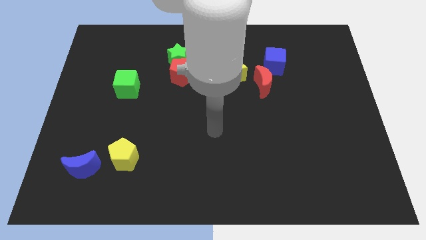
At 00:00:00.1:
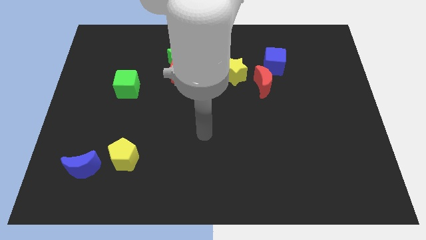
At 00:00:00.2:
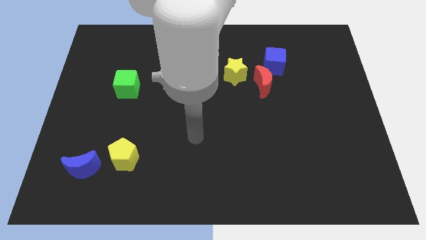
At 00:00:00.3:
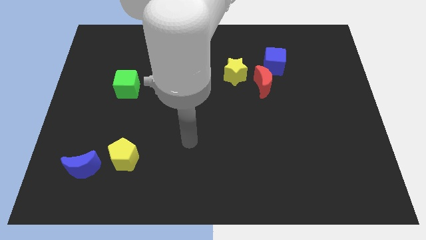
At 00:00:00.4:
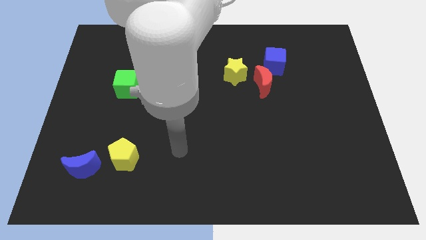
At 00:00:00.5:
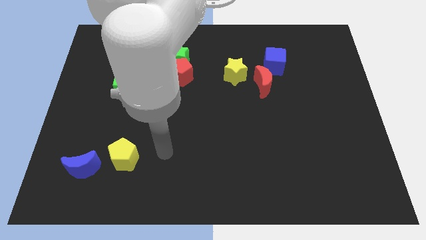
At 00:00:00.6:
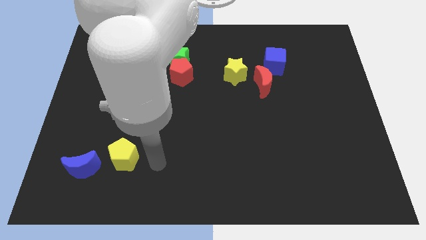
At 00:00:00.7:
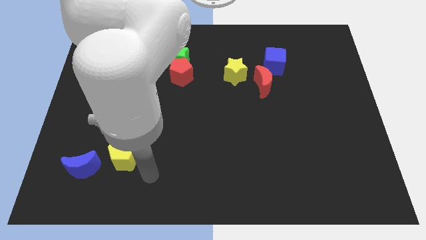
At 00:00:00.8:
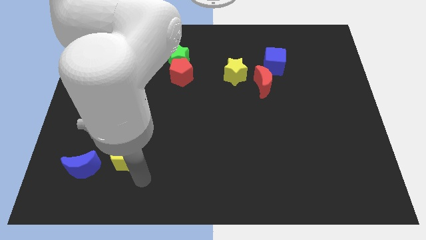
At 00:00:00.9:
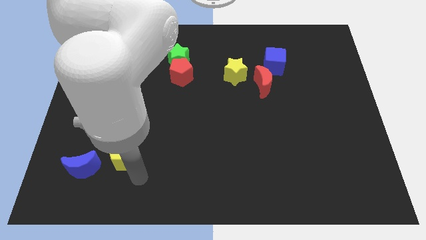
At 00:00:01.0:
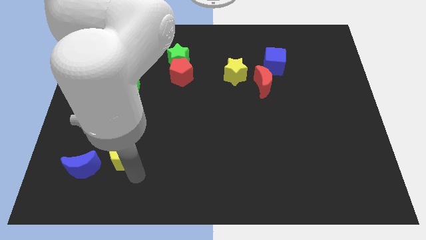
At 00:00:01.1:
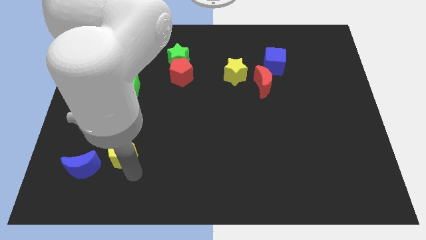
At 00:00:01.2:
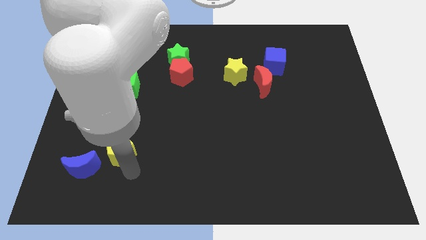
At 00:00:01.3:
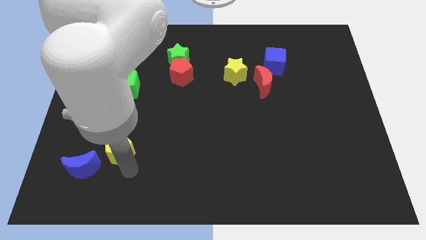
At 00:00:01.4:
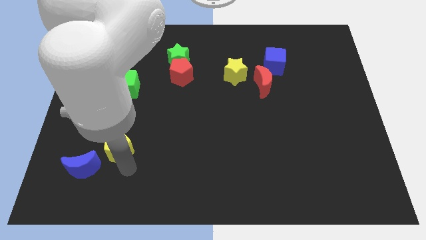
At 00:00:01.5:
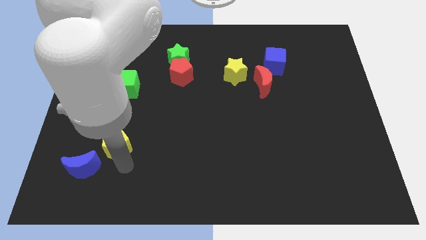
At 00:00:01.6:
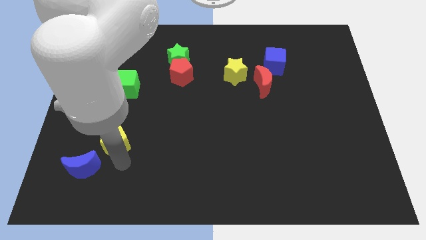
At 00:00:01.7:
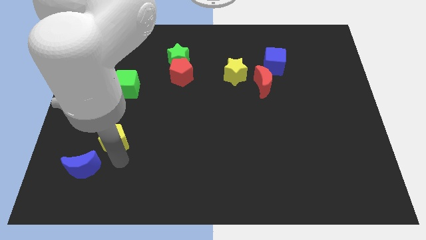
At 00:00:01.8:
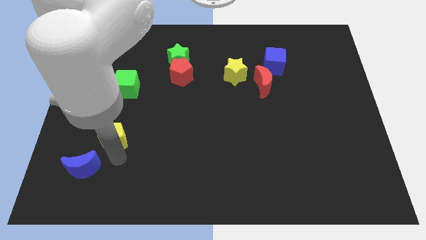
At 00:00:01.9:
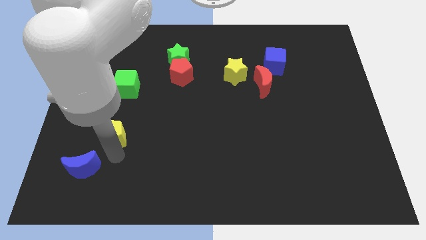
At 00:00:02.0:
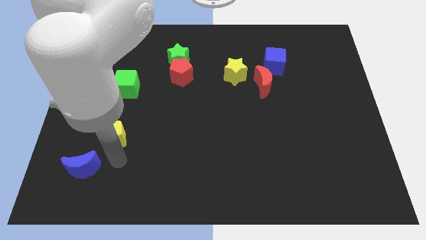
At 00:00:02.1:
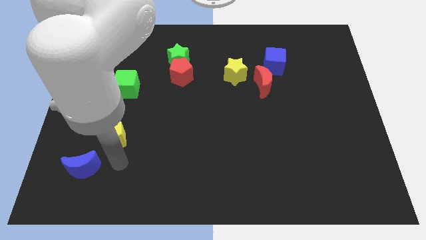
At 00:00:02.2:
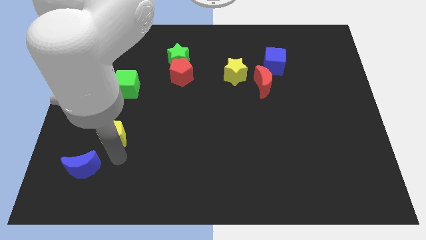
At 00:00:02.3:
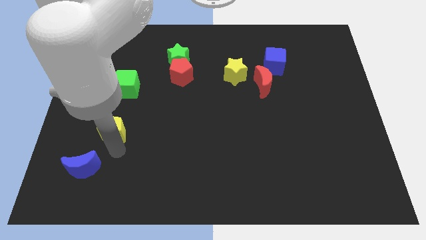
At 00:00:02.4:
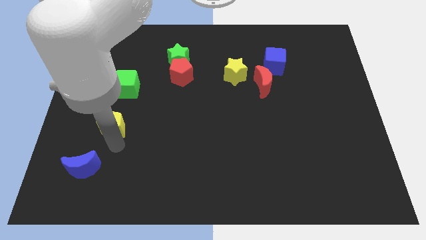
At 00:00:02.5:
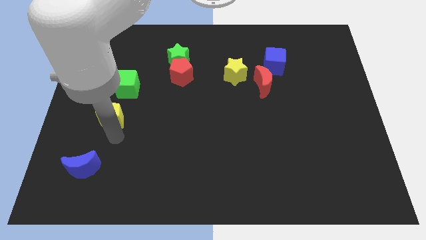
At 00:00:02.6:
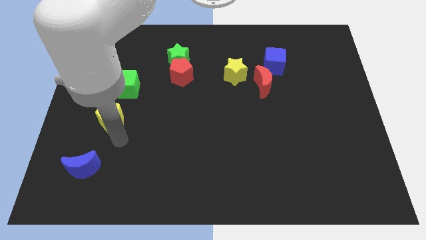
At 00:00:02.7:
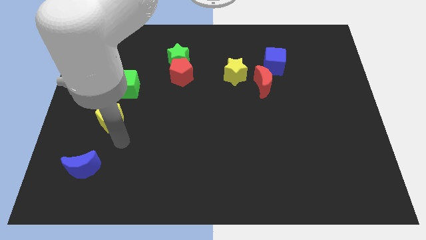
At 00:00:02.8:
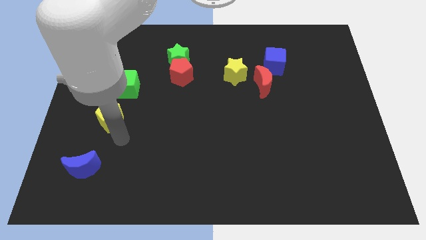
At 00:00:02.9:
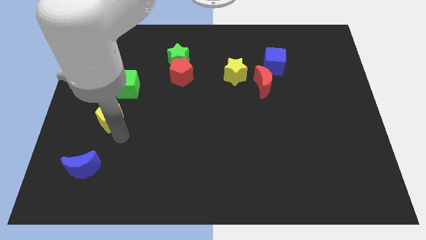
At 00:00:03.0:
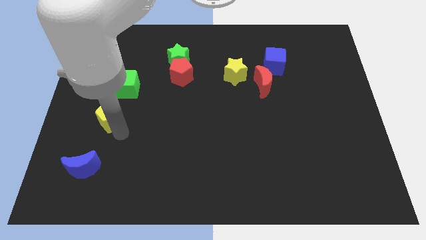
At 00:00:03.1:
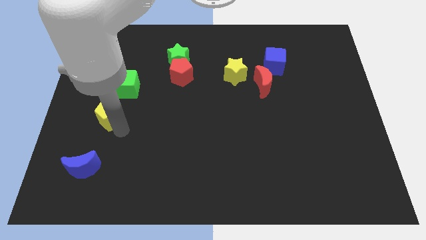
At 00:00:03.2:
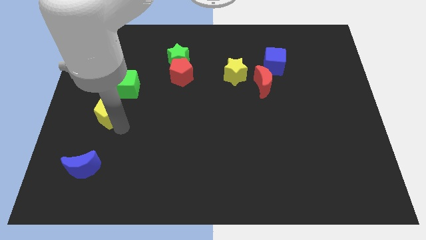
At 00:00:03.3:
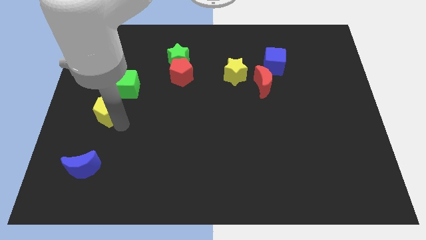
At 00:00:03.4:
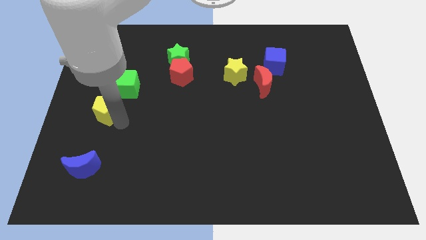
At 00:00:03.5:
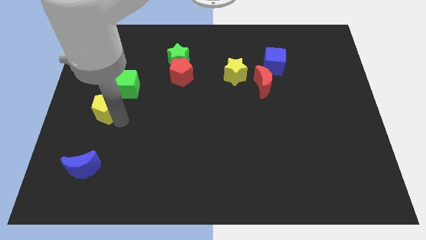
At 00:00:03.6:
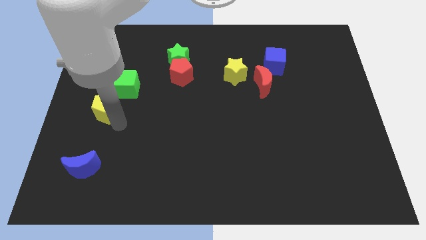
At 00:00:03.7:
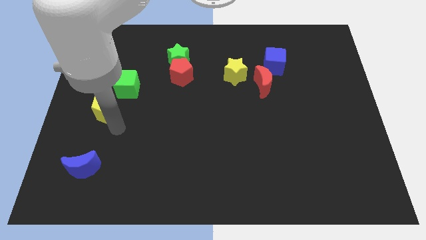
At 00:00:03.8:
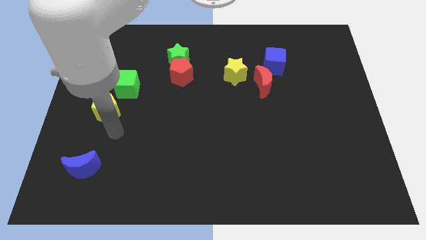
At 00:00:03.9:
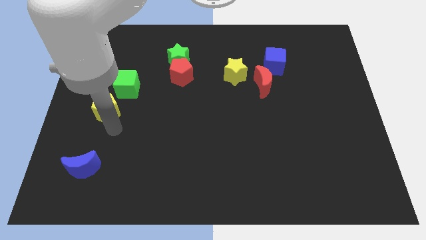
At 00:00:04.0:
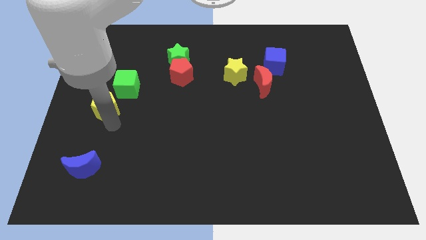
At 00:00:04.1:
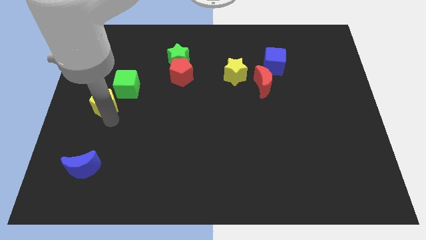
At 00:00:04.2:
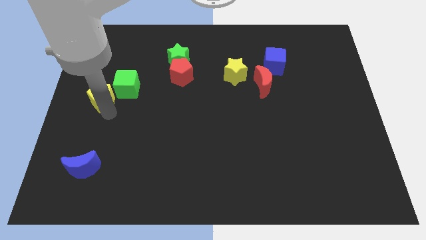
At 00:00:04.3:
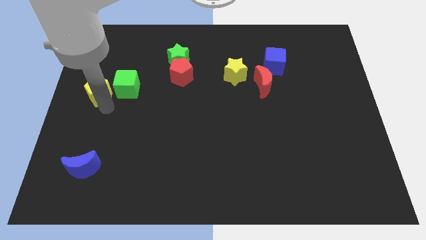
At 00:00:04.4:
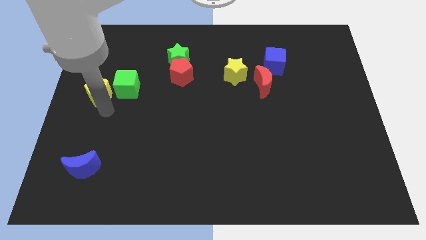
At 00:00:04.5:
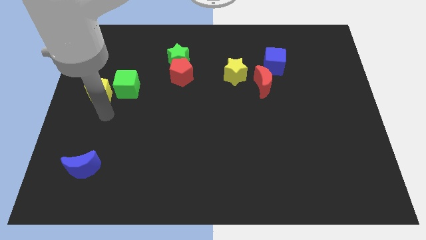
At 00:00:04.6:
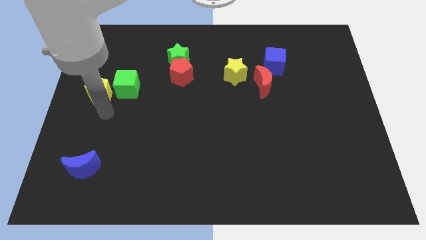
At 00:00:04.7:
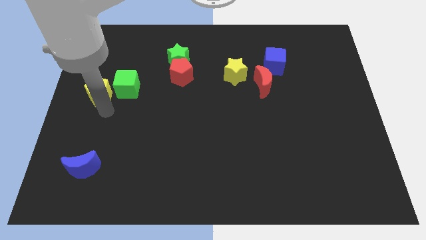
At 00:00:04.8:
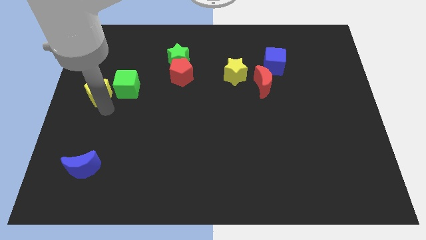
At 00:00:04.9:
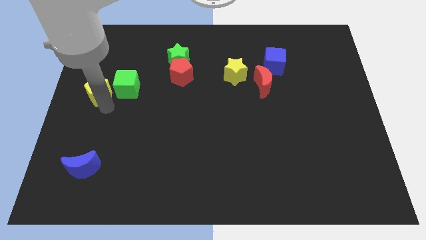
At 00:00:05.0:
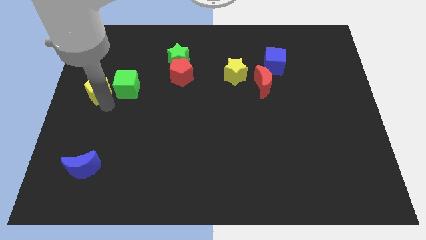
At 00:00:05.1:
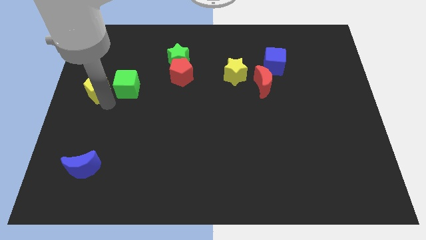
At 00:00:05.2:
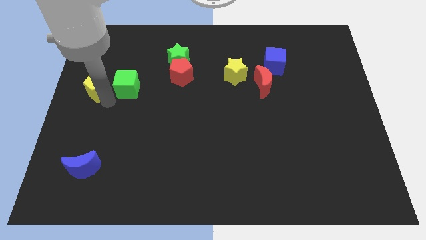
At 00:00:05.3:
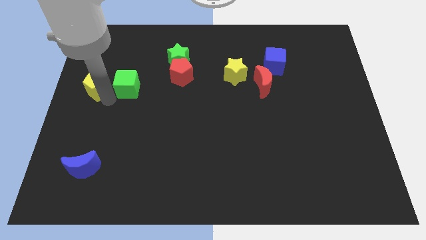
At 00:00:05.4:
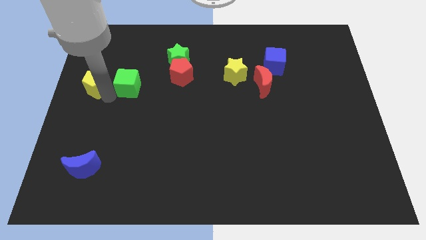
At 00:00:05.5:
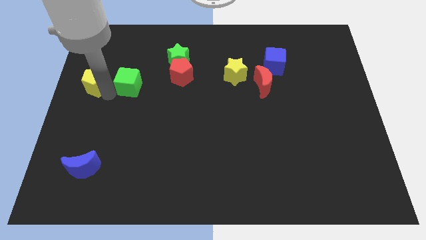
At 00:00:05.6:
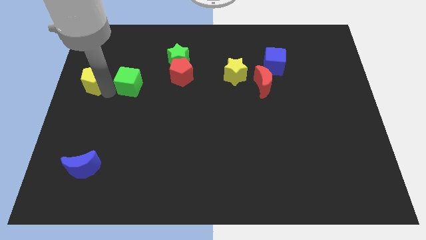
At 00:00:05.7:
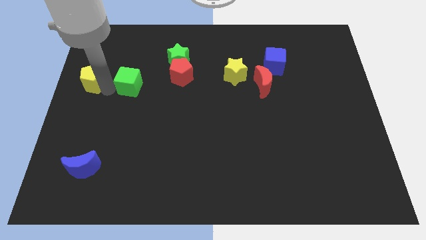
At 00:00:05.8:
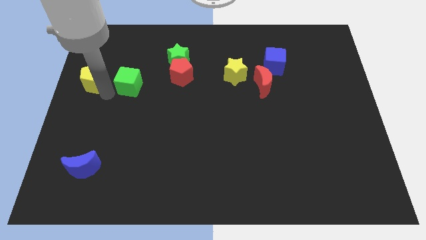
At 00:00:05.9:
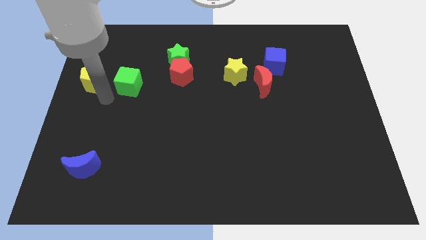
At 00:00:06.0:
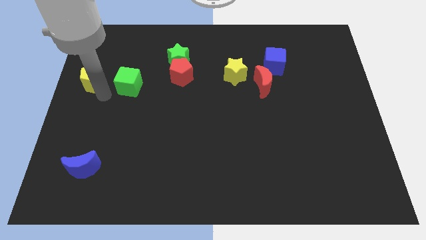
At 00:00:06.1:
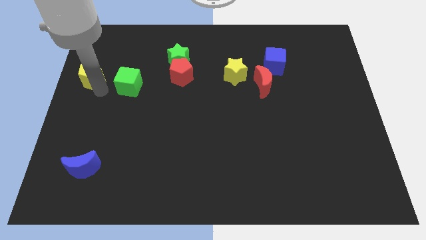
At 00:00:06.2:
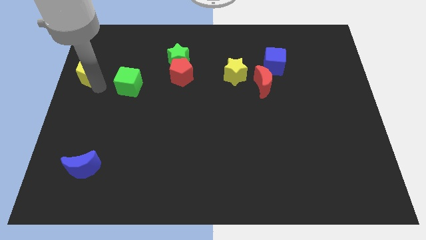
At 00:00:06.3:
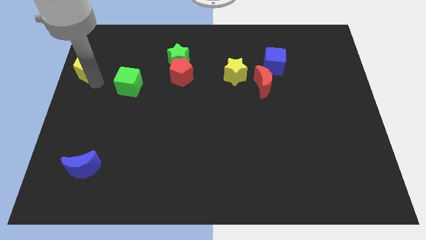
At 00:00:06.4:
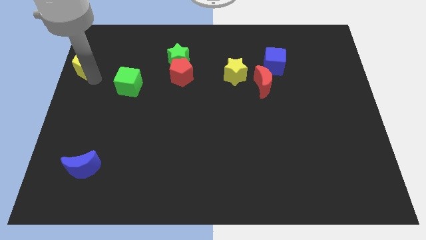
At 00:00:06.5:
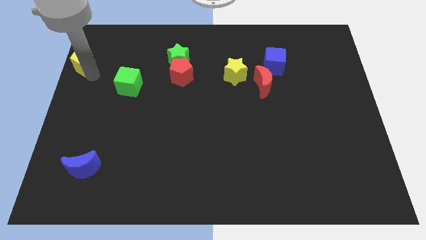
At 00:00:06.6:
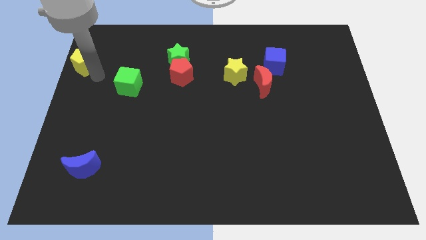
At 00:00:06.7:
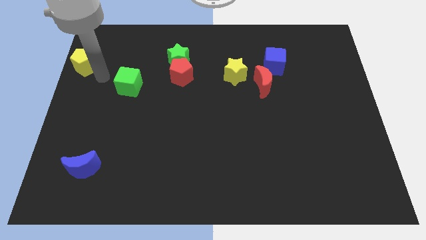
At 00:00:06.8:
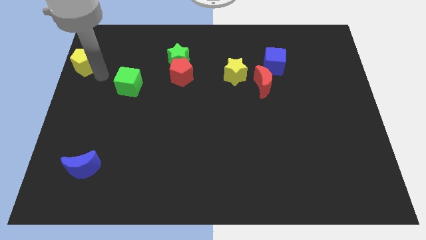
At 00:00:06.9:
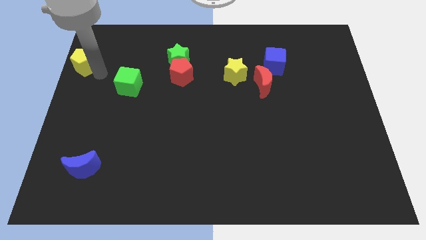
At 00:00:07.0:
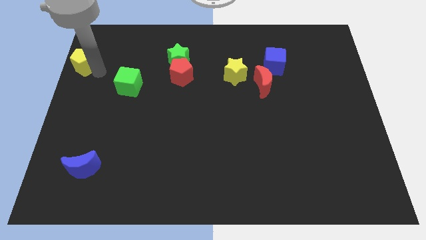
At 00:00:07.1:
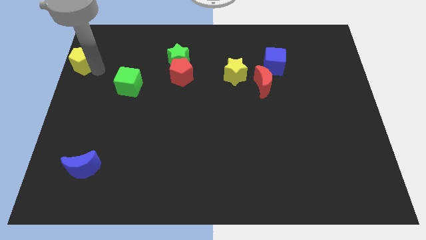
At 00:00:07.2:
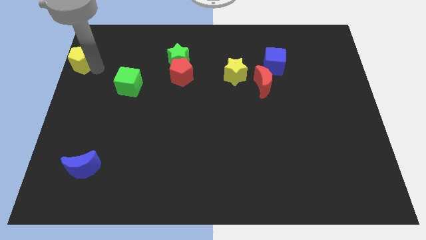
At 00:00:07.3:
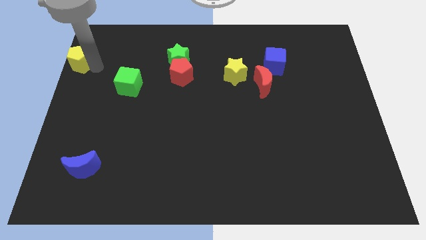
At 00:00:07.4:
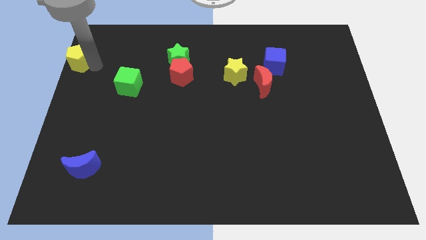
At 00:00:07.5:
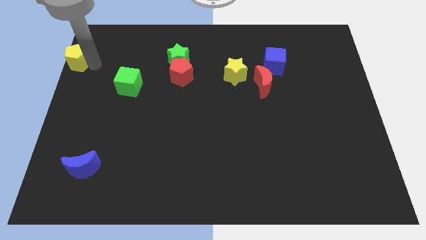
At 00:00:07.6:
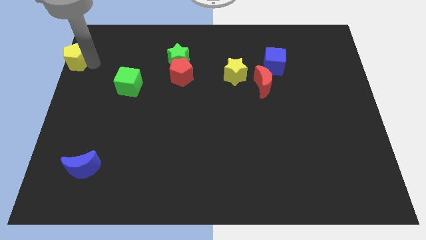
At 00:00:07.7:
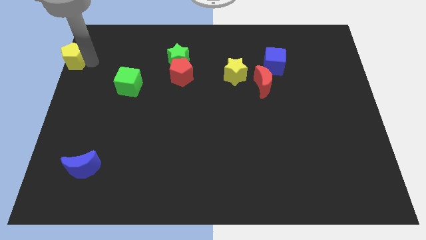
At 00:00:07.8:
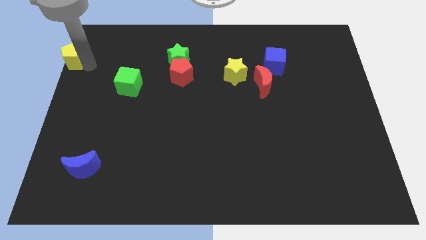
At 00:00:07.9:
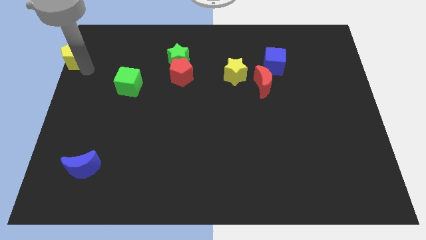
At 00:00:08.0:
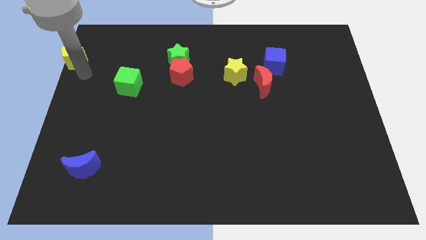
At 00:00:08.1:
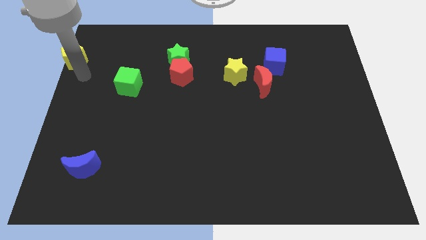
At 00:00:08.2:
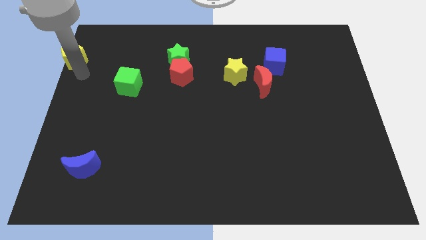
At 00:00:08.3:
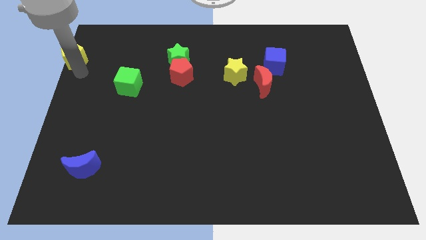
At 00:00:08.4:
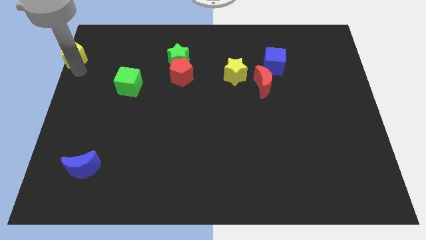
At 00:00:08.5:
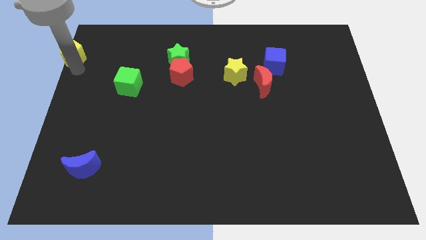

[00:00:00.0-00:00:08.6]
move the yellow pentagon to the upper left corner
